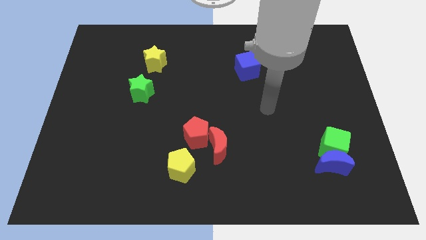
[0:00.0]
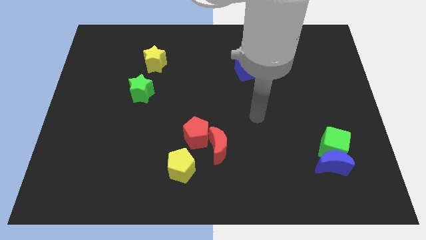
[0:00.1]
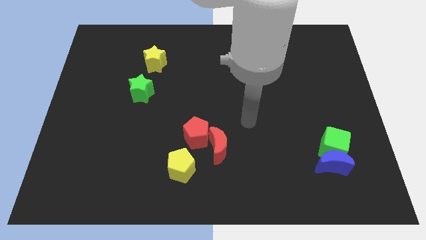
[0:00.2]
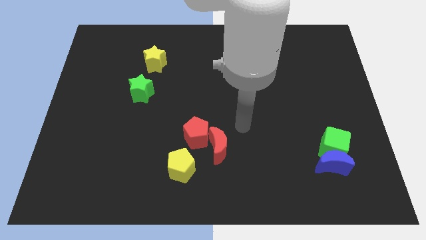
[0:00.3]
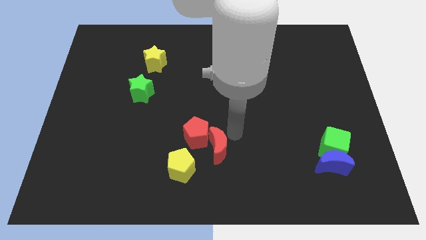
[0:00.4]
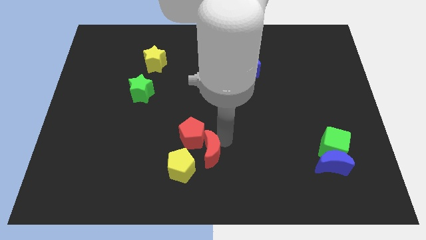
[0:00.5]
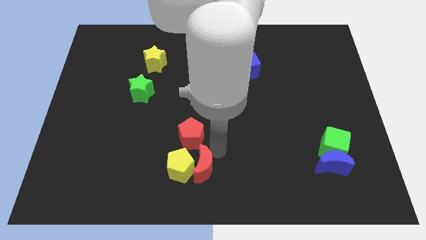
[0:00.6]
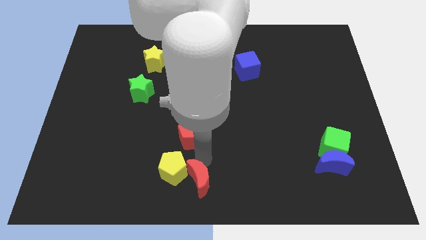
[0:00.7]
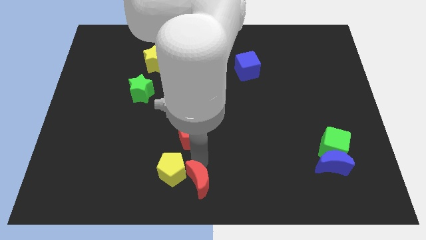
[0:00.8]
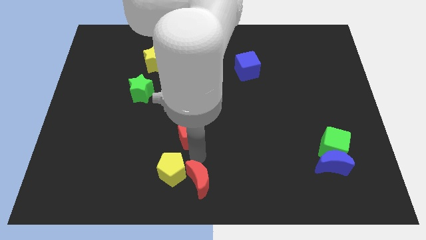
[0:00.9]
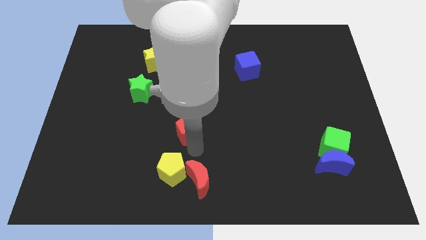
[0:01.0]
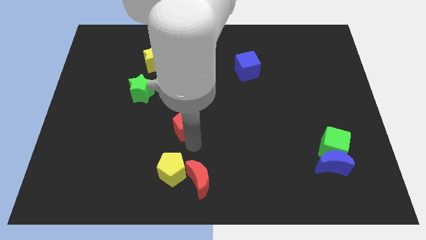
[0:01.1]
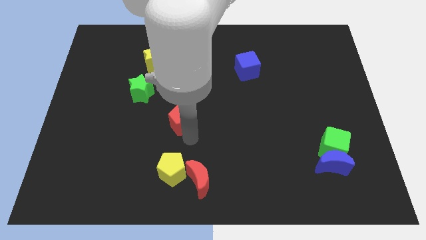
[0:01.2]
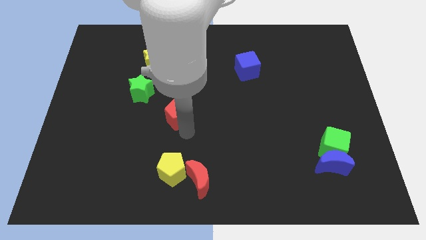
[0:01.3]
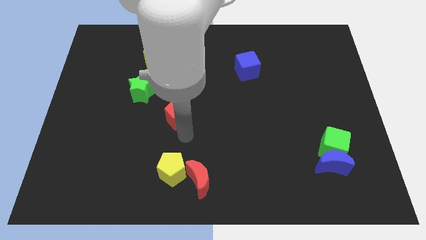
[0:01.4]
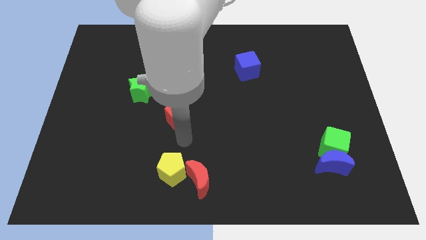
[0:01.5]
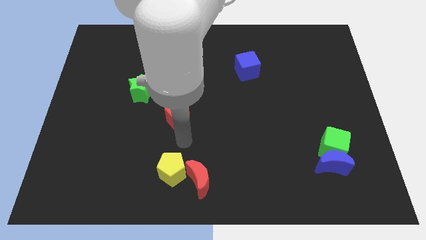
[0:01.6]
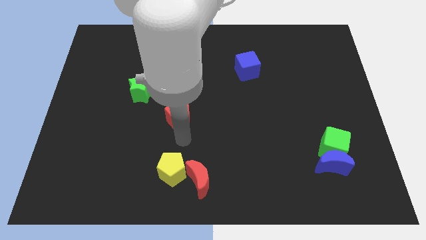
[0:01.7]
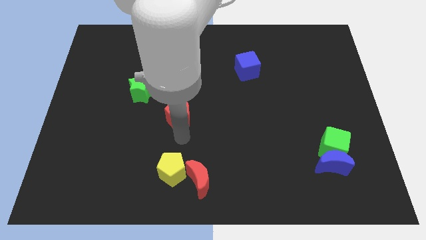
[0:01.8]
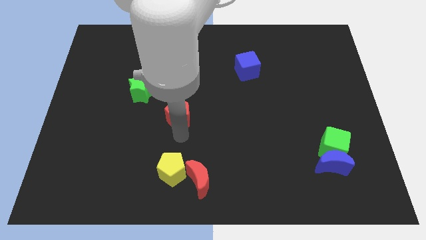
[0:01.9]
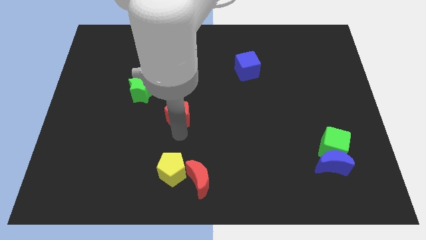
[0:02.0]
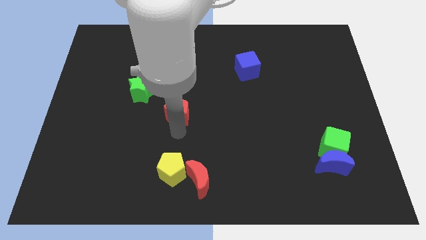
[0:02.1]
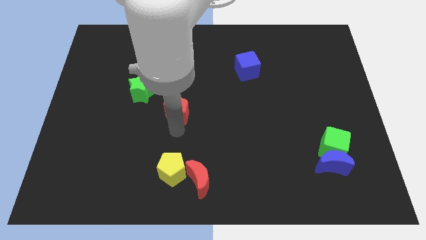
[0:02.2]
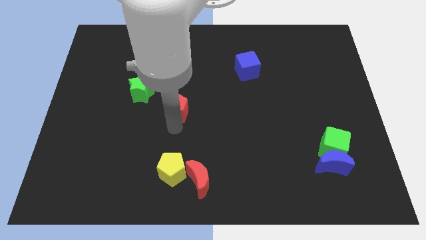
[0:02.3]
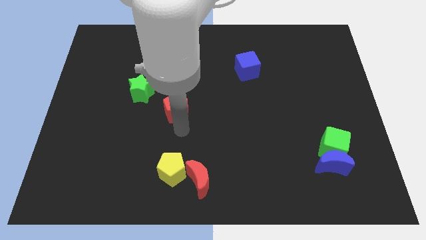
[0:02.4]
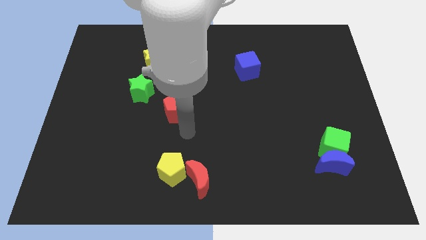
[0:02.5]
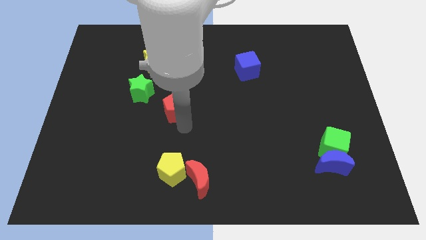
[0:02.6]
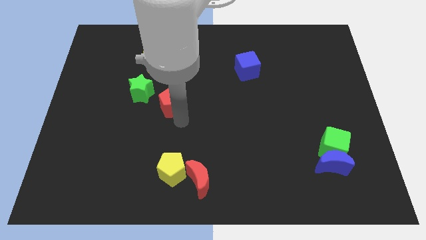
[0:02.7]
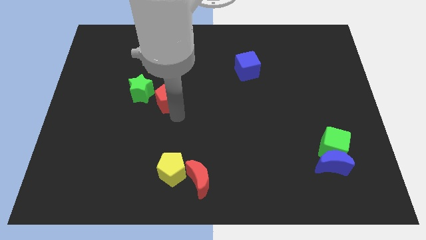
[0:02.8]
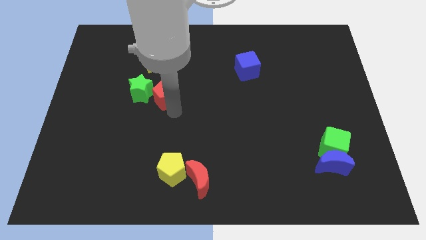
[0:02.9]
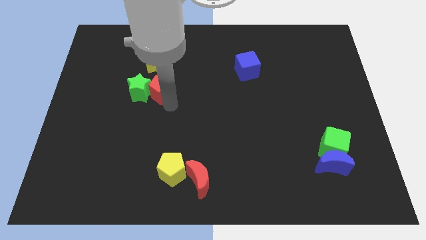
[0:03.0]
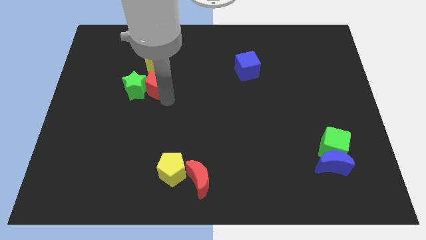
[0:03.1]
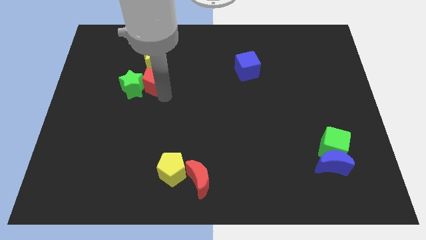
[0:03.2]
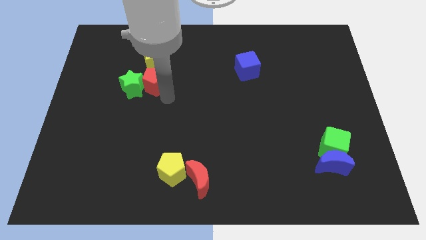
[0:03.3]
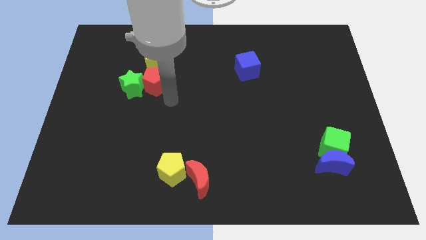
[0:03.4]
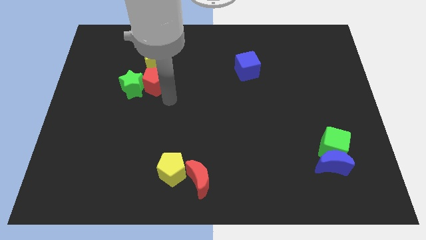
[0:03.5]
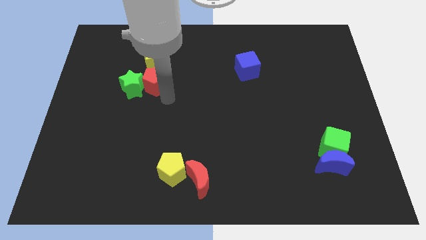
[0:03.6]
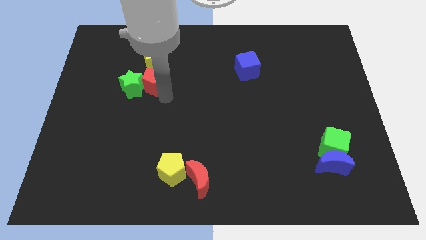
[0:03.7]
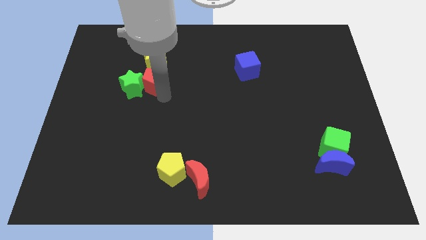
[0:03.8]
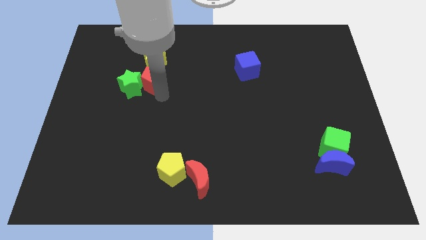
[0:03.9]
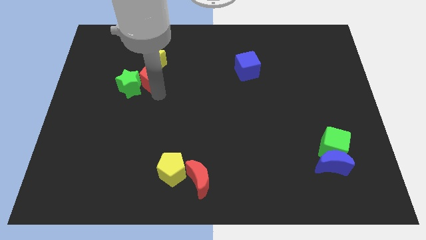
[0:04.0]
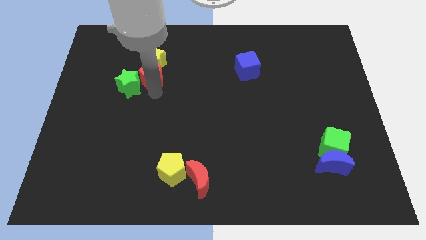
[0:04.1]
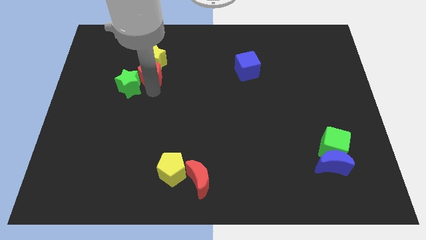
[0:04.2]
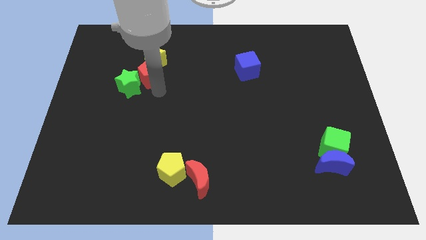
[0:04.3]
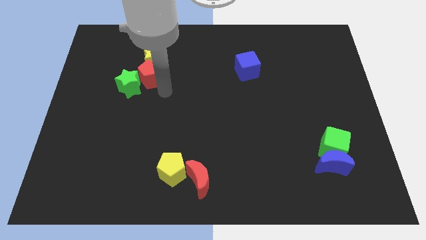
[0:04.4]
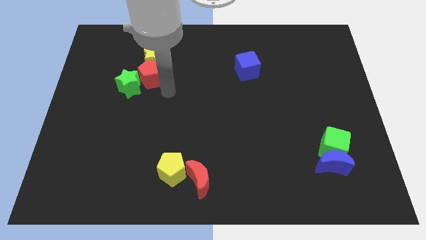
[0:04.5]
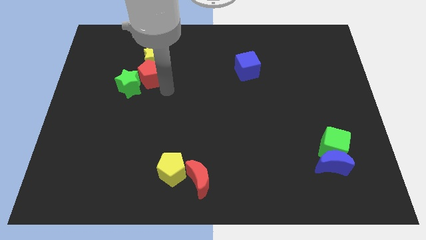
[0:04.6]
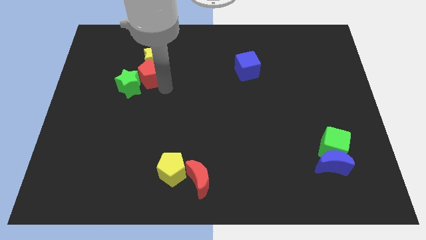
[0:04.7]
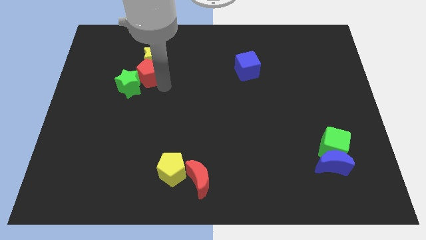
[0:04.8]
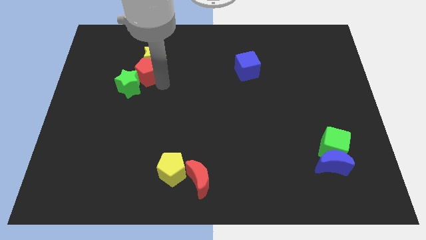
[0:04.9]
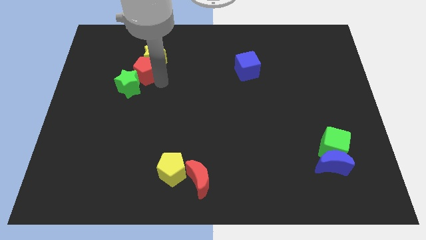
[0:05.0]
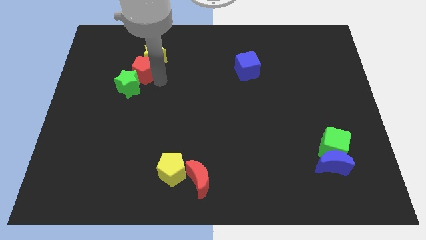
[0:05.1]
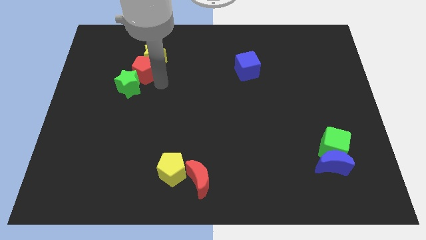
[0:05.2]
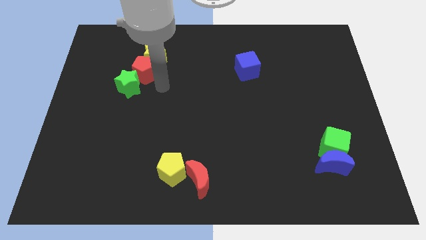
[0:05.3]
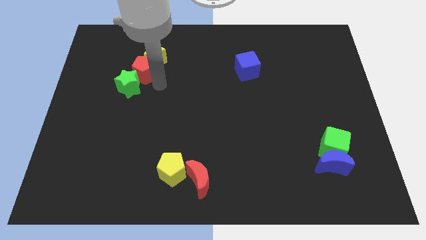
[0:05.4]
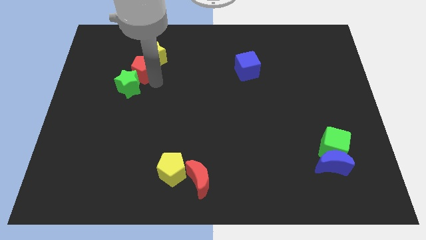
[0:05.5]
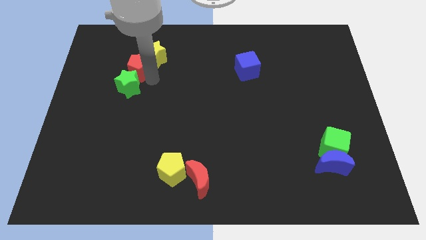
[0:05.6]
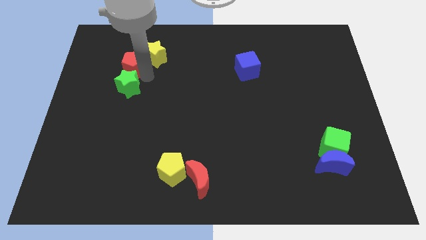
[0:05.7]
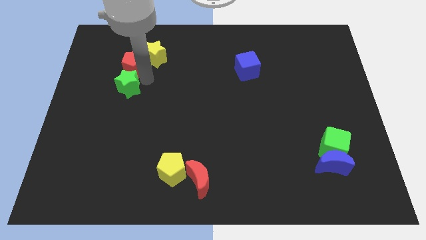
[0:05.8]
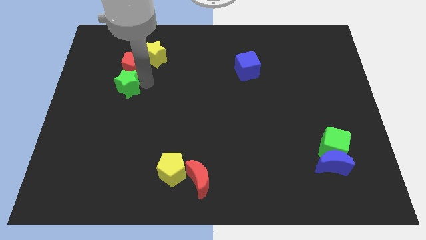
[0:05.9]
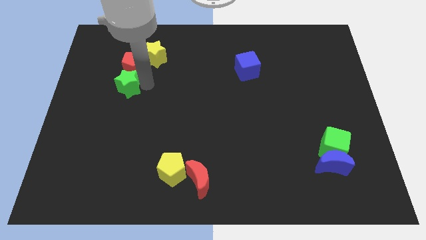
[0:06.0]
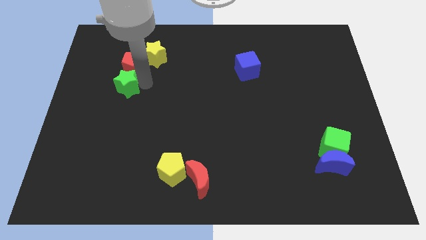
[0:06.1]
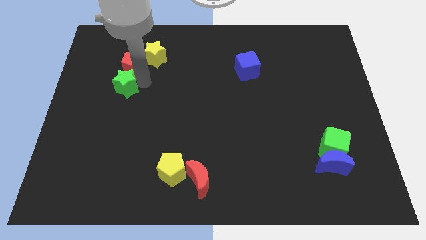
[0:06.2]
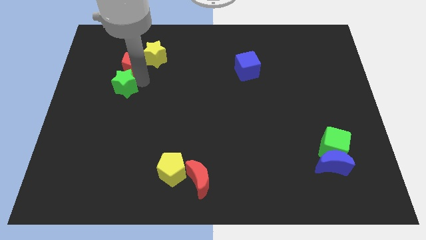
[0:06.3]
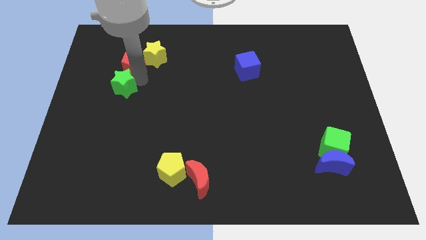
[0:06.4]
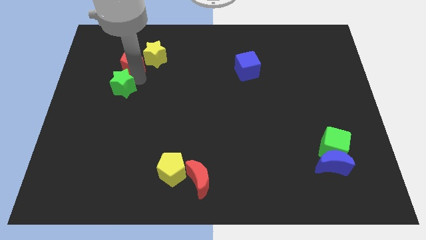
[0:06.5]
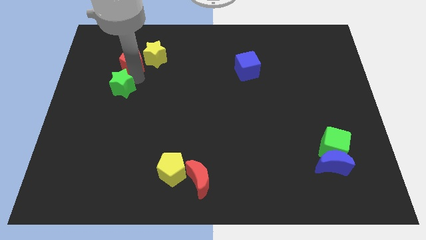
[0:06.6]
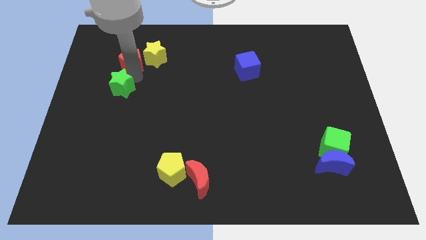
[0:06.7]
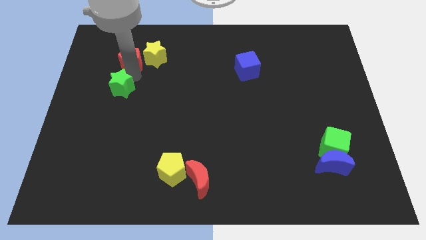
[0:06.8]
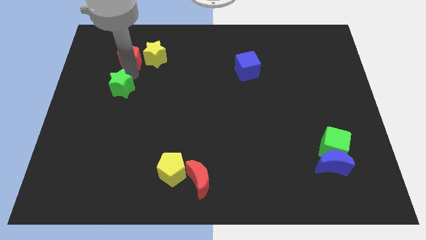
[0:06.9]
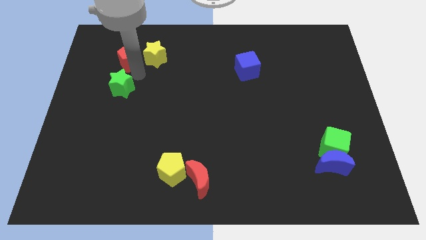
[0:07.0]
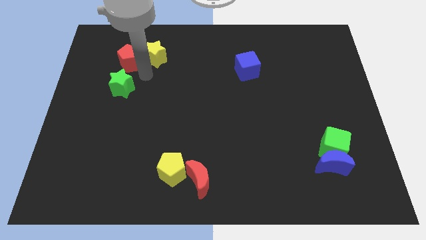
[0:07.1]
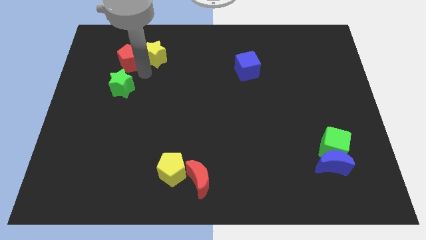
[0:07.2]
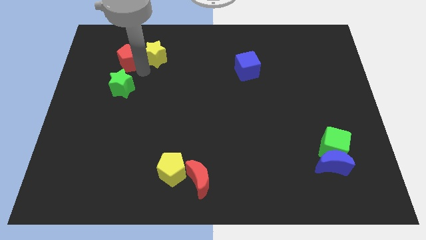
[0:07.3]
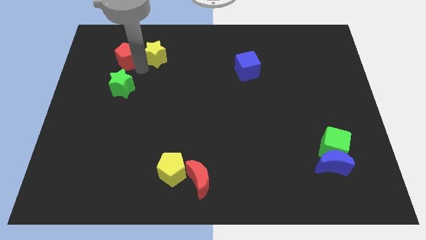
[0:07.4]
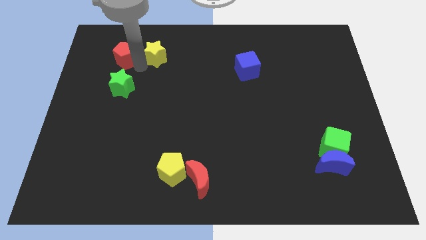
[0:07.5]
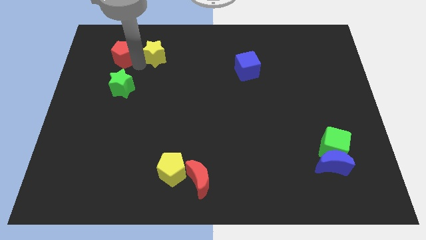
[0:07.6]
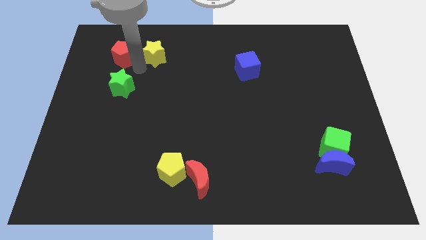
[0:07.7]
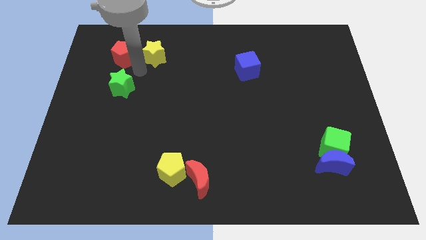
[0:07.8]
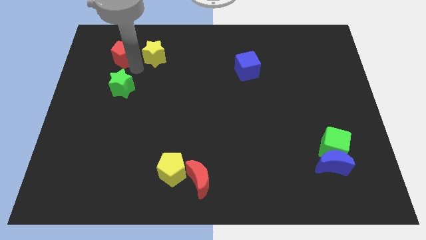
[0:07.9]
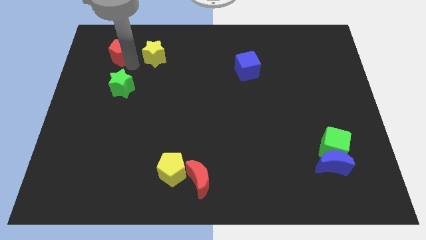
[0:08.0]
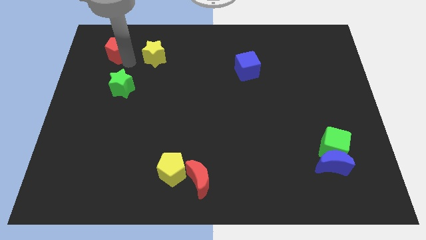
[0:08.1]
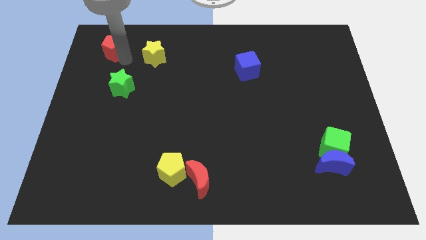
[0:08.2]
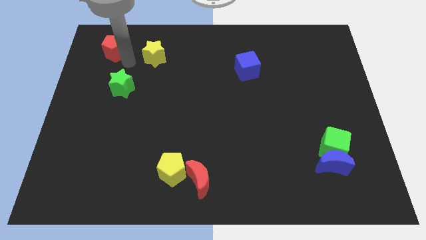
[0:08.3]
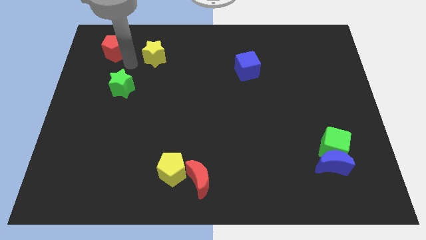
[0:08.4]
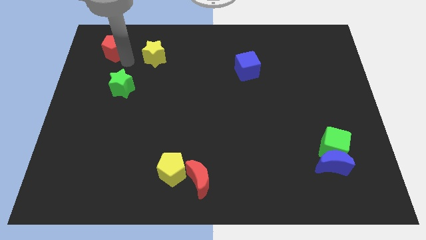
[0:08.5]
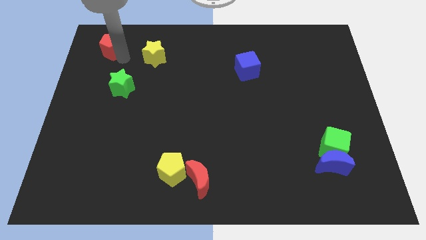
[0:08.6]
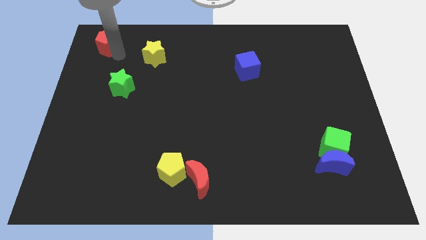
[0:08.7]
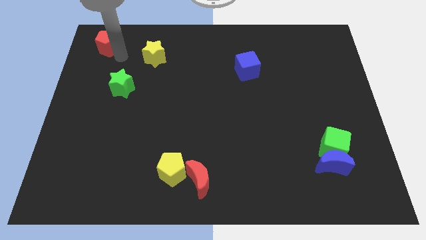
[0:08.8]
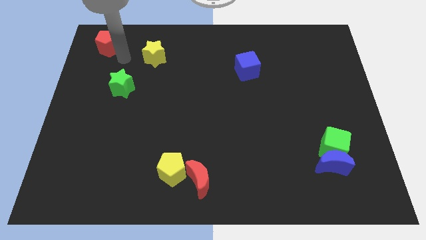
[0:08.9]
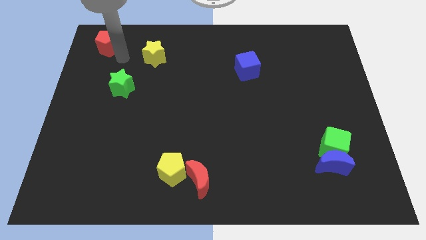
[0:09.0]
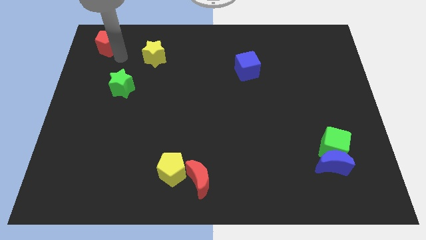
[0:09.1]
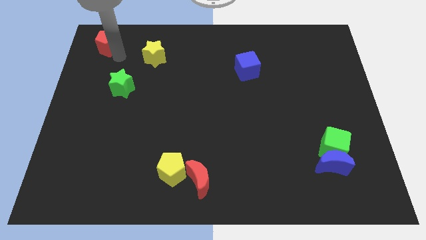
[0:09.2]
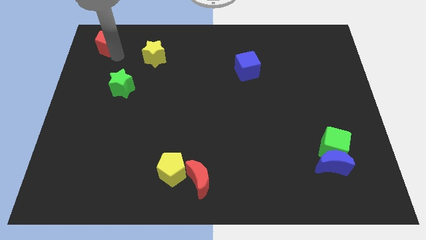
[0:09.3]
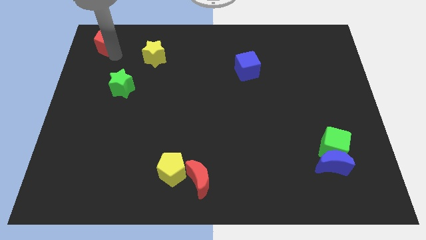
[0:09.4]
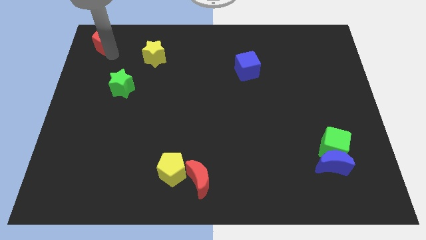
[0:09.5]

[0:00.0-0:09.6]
slide the red pentagon to the top left corner
